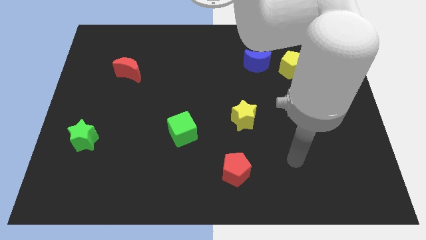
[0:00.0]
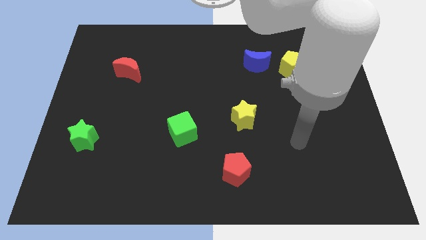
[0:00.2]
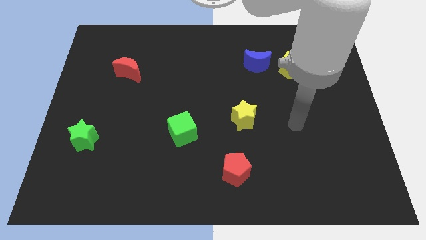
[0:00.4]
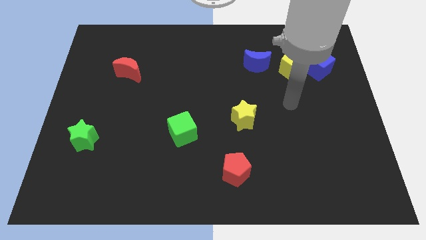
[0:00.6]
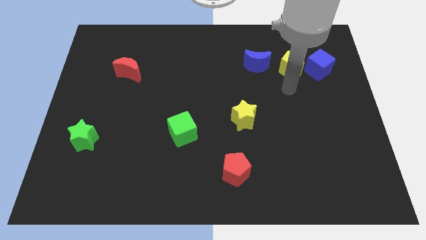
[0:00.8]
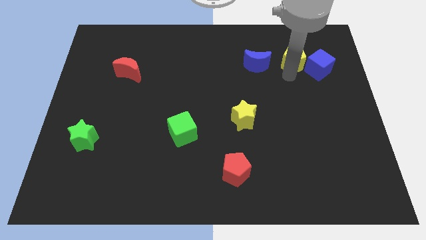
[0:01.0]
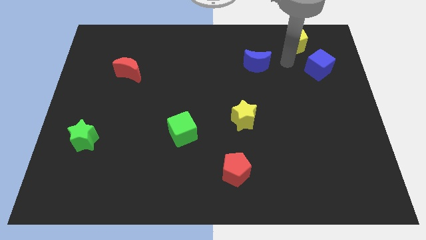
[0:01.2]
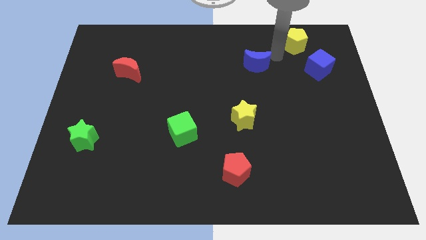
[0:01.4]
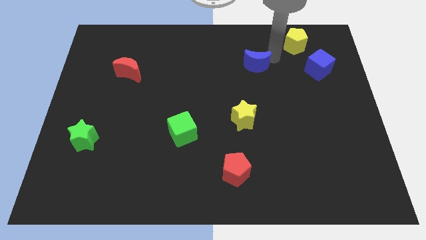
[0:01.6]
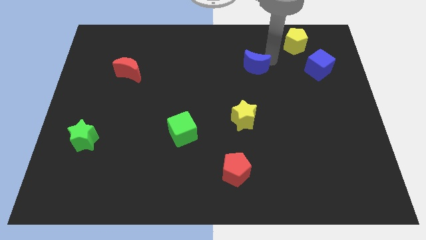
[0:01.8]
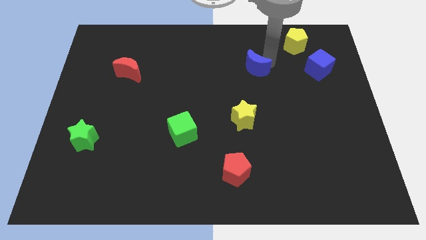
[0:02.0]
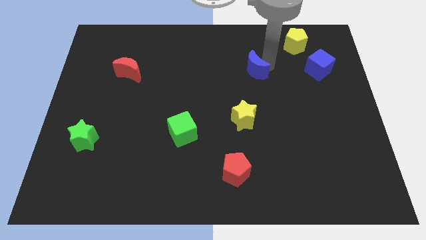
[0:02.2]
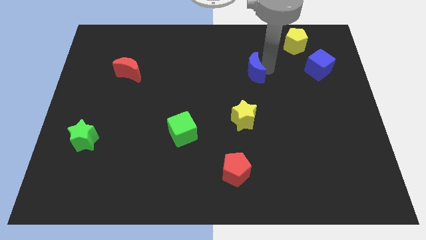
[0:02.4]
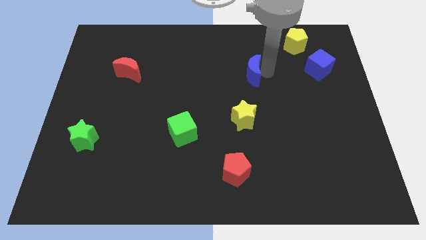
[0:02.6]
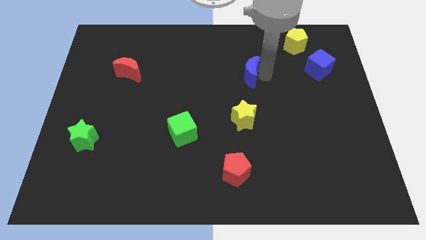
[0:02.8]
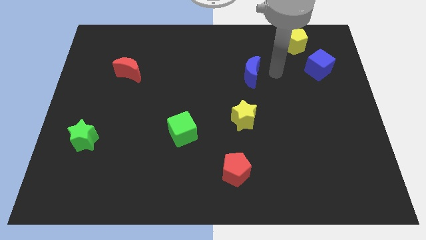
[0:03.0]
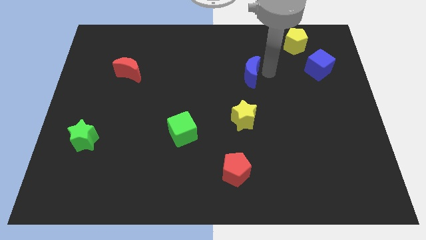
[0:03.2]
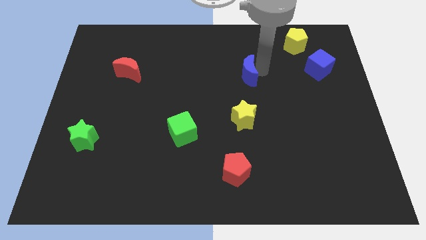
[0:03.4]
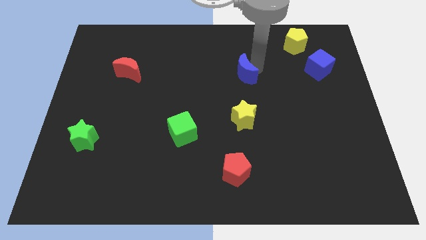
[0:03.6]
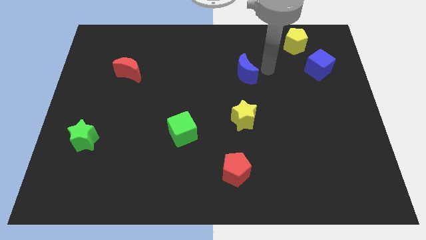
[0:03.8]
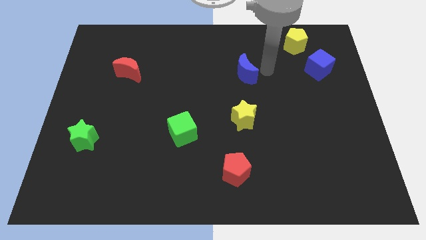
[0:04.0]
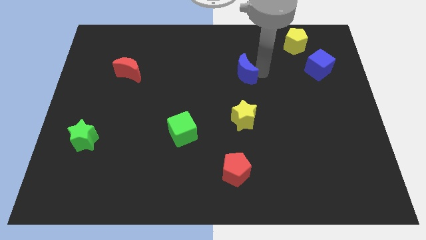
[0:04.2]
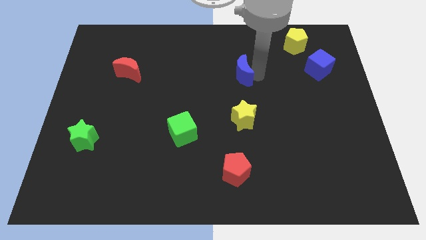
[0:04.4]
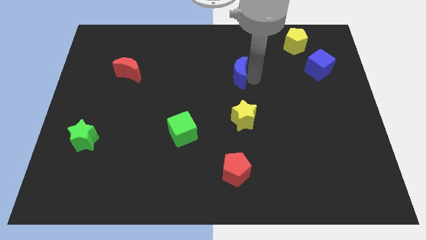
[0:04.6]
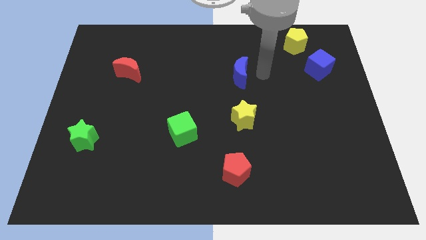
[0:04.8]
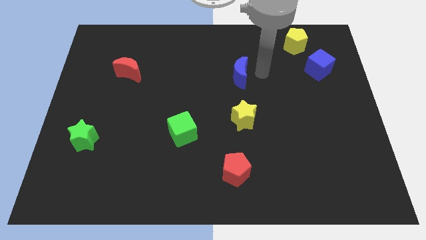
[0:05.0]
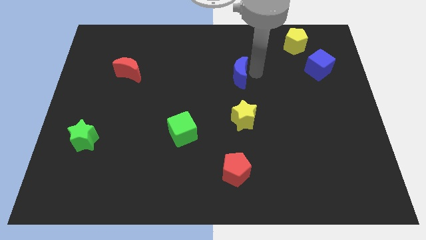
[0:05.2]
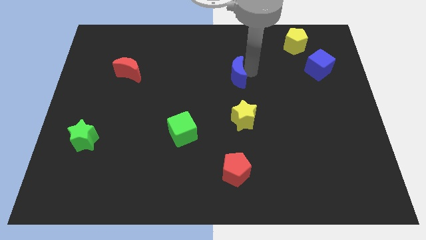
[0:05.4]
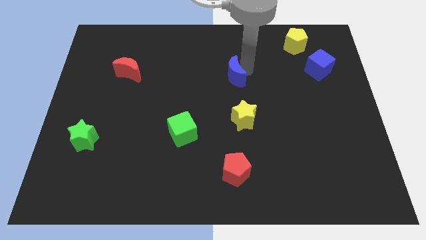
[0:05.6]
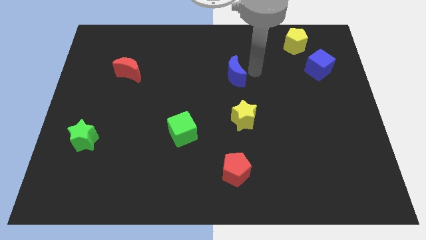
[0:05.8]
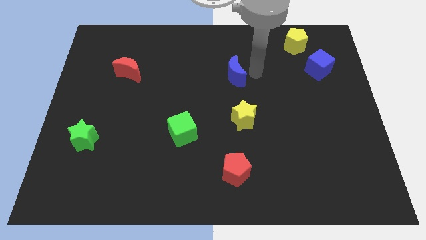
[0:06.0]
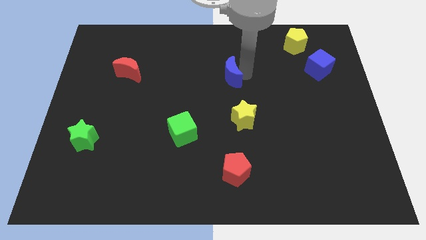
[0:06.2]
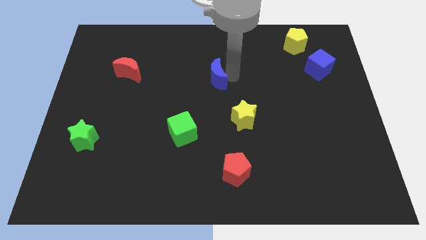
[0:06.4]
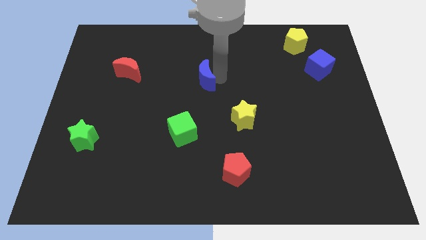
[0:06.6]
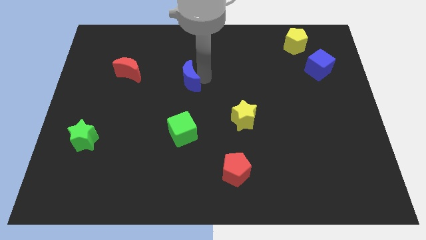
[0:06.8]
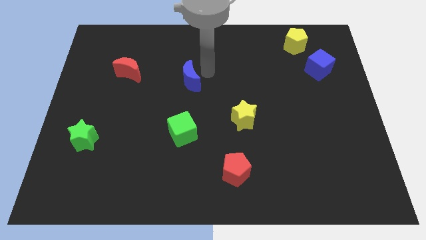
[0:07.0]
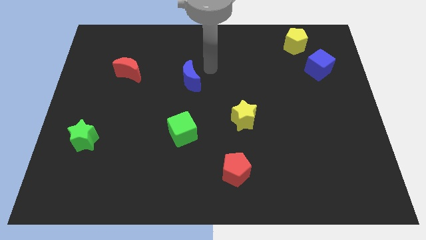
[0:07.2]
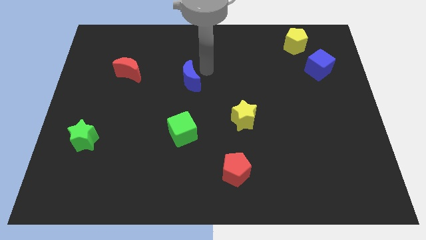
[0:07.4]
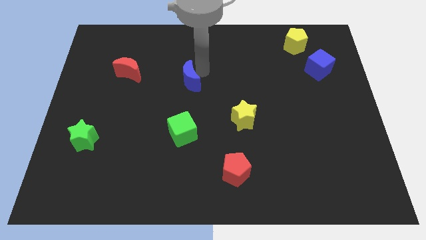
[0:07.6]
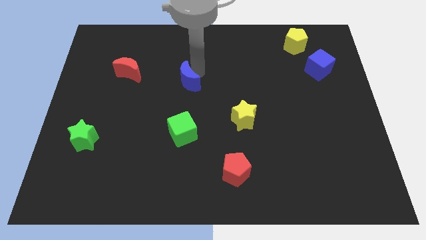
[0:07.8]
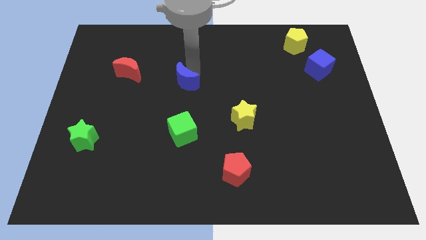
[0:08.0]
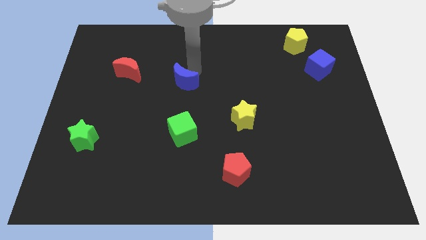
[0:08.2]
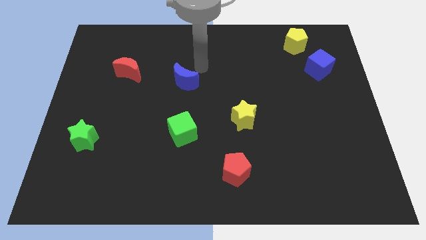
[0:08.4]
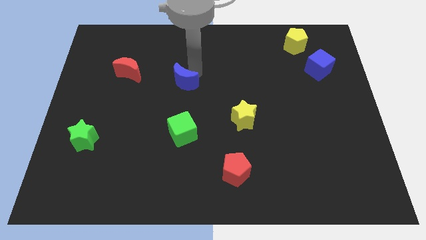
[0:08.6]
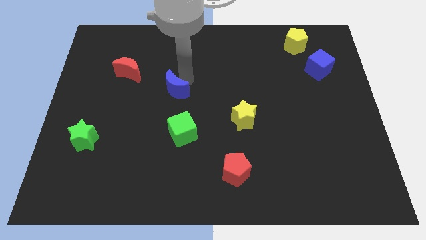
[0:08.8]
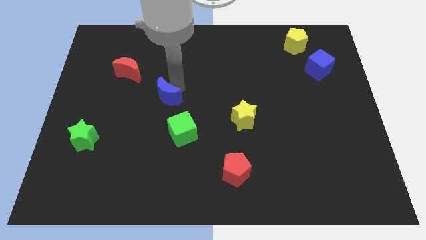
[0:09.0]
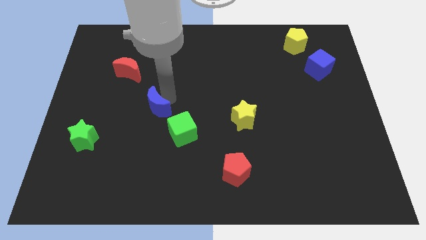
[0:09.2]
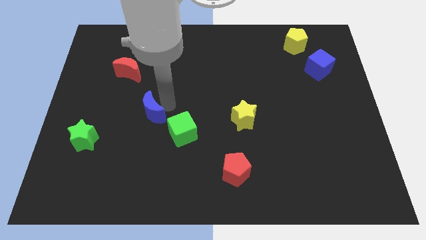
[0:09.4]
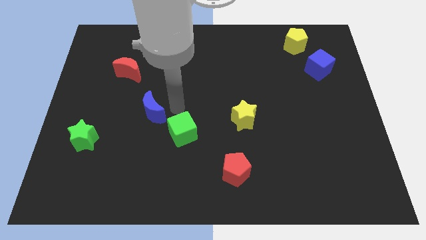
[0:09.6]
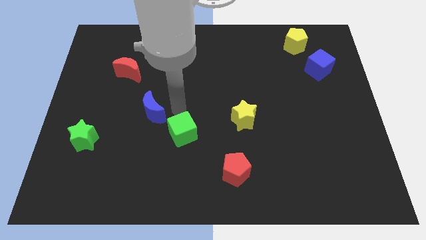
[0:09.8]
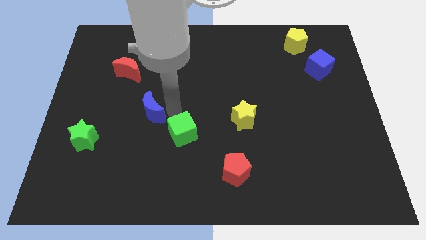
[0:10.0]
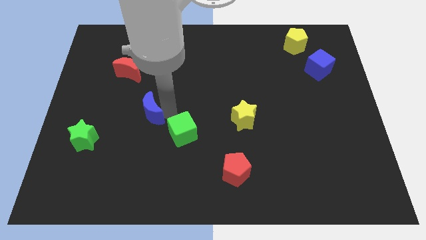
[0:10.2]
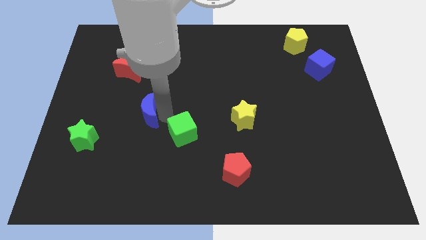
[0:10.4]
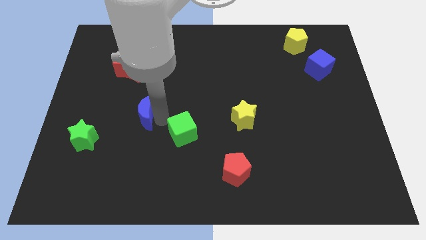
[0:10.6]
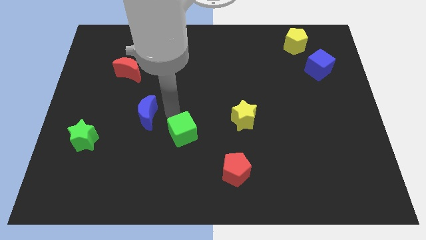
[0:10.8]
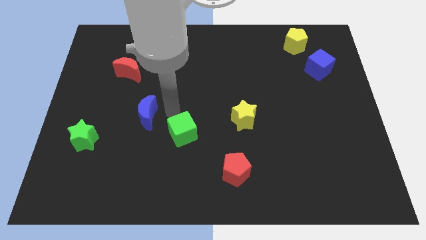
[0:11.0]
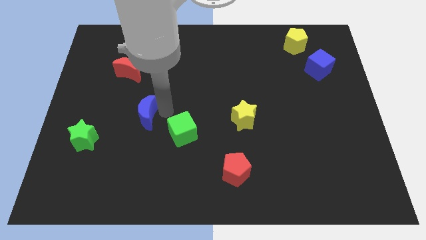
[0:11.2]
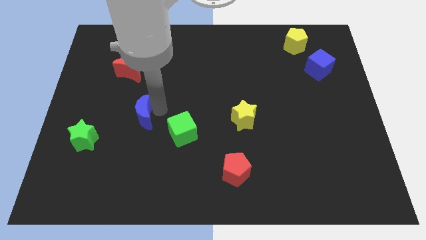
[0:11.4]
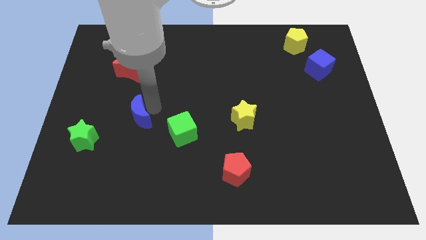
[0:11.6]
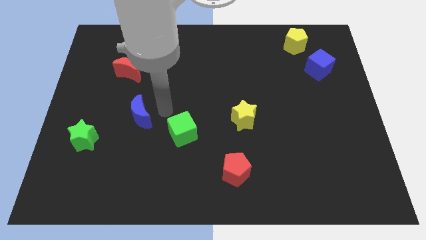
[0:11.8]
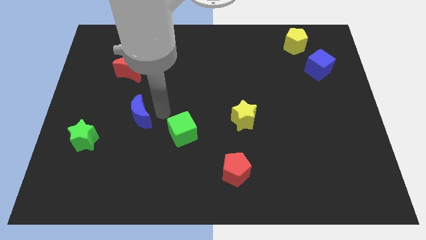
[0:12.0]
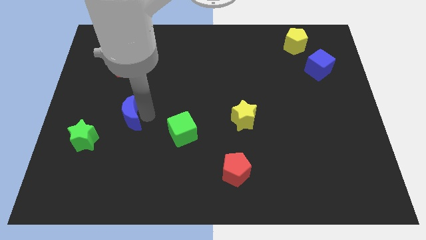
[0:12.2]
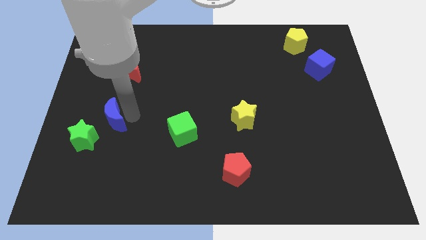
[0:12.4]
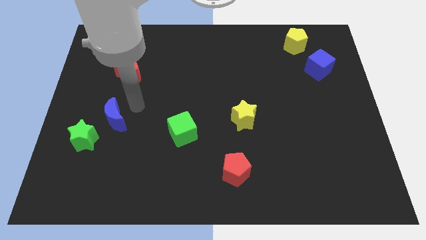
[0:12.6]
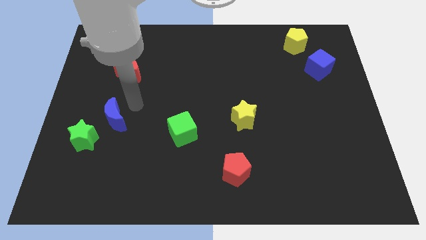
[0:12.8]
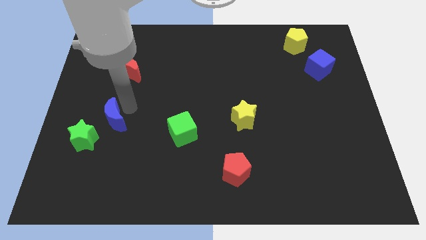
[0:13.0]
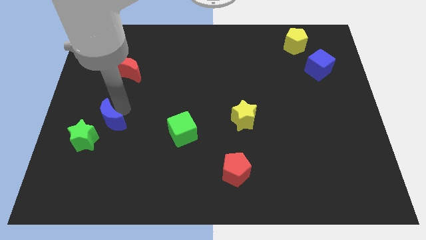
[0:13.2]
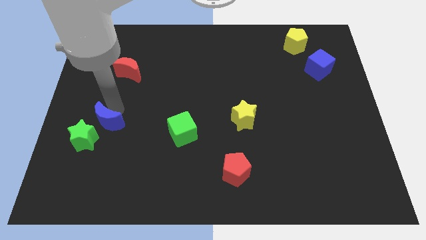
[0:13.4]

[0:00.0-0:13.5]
push the blue moon to the green star
